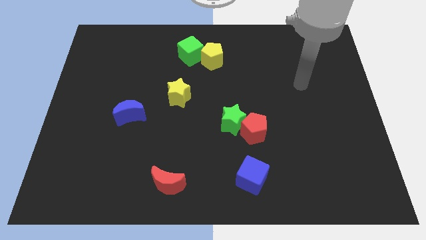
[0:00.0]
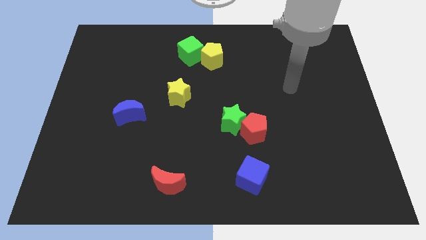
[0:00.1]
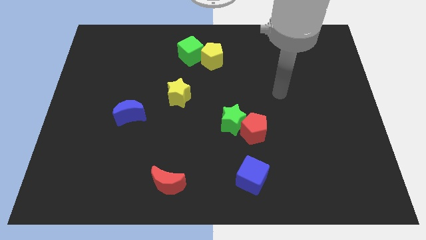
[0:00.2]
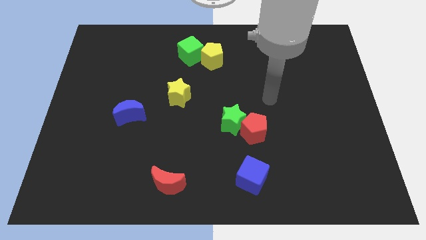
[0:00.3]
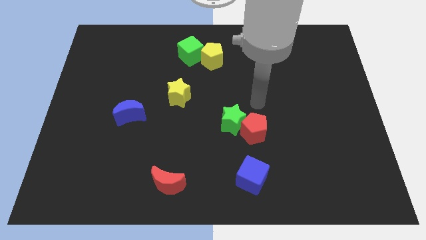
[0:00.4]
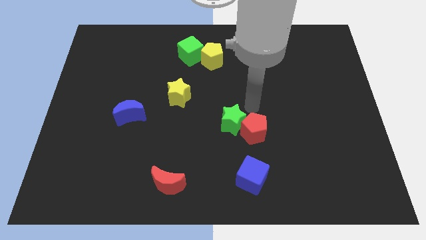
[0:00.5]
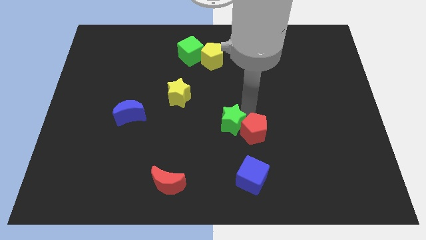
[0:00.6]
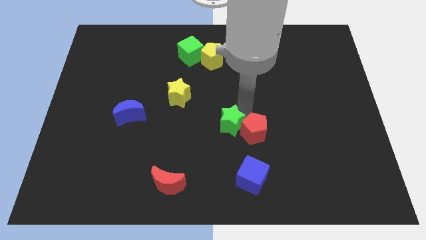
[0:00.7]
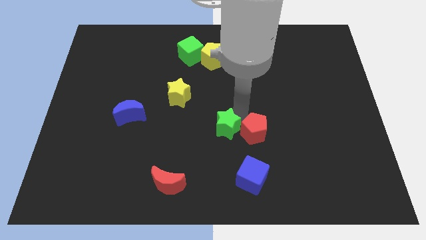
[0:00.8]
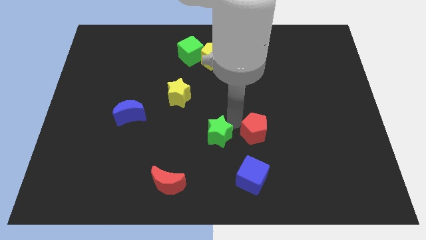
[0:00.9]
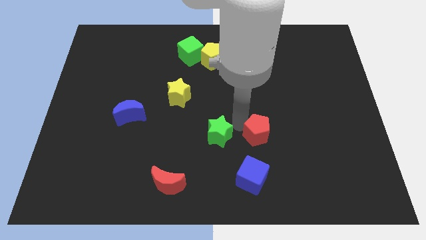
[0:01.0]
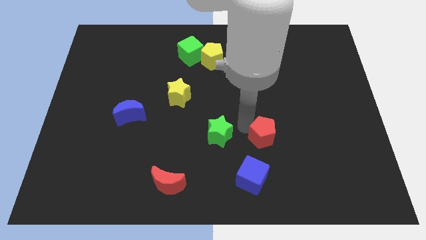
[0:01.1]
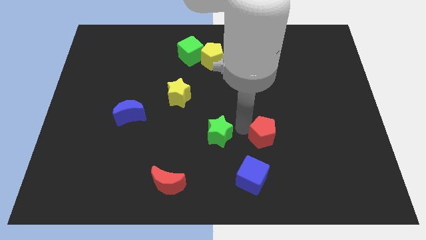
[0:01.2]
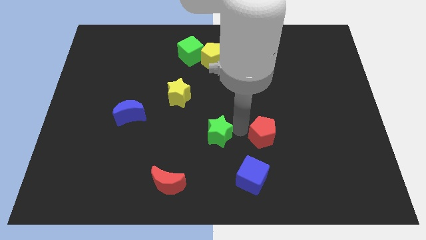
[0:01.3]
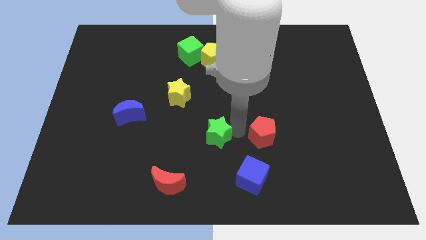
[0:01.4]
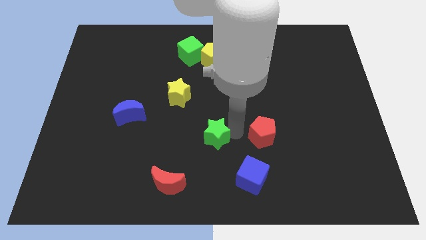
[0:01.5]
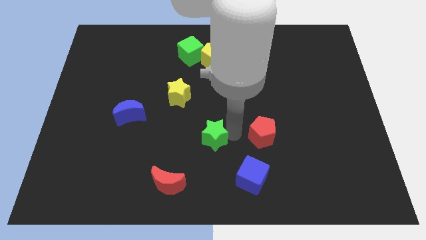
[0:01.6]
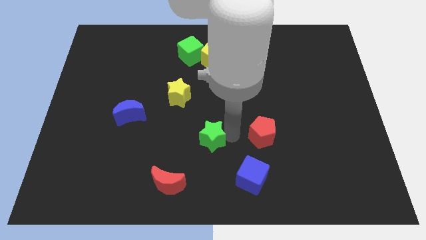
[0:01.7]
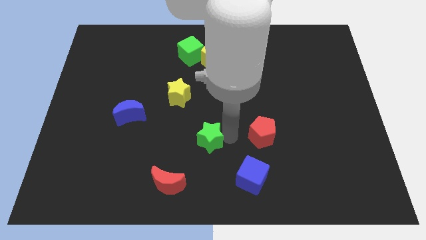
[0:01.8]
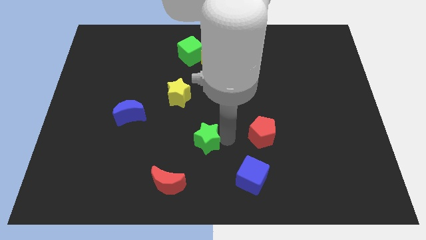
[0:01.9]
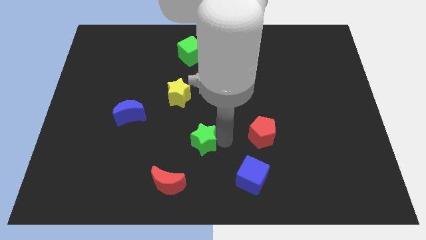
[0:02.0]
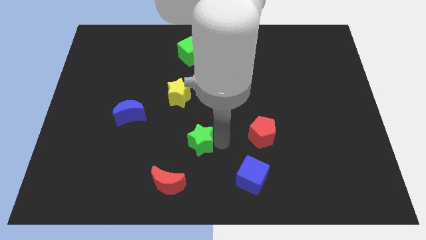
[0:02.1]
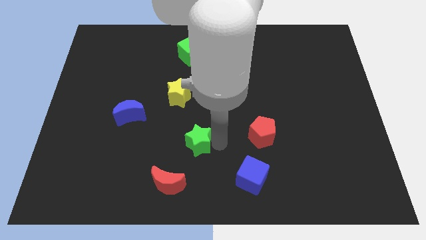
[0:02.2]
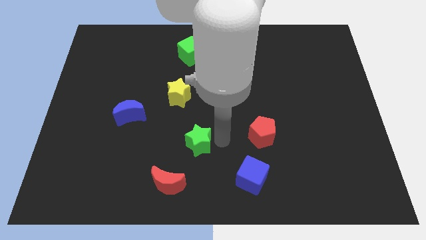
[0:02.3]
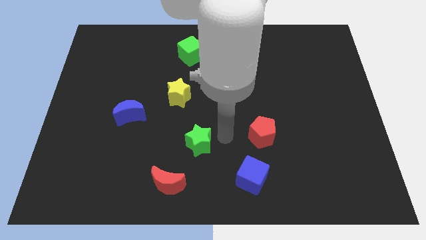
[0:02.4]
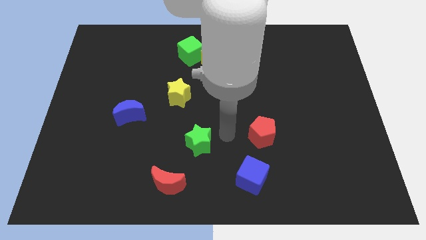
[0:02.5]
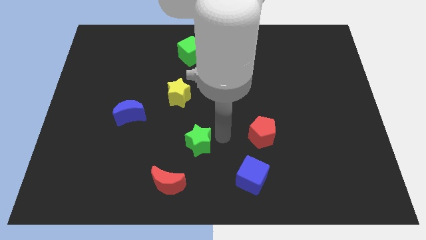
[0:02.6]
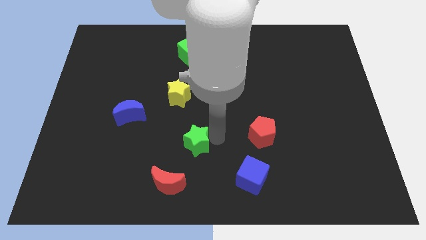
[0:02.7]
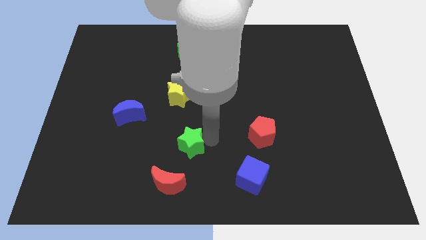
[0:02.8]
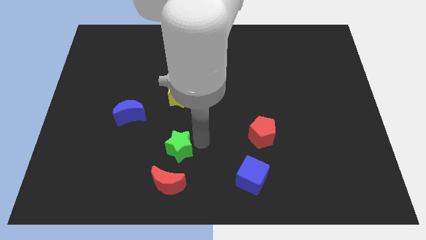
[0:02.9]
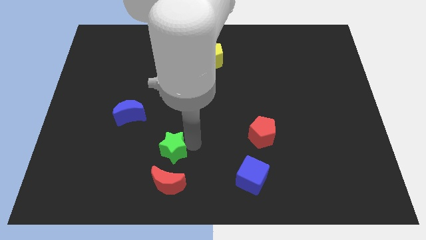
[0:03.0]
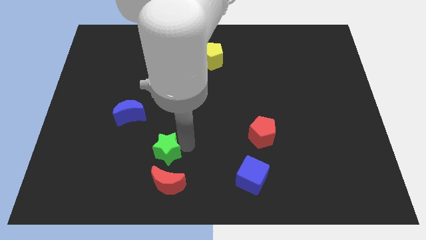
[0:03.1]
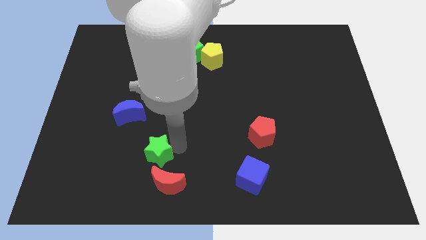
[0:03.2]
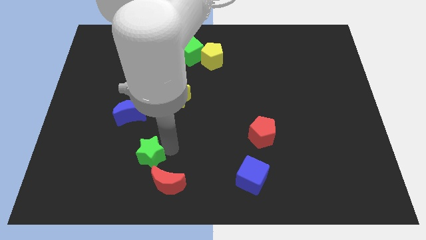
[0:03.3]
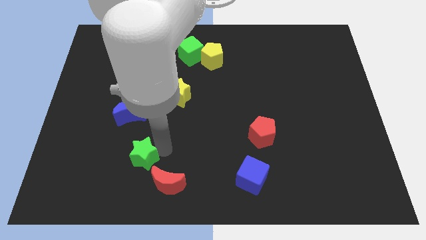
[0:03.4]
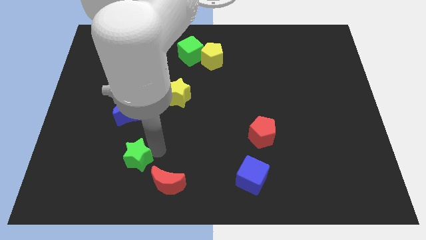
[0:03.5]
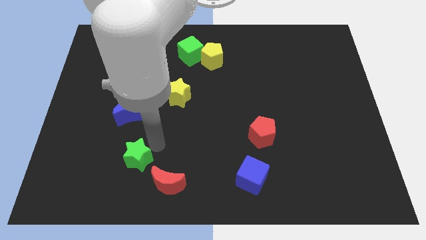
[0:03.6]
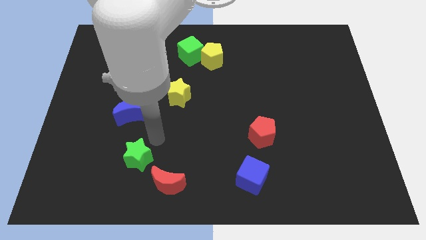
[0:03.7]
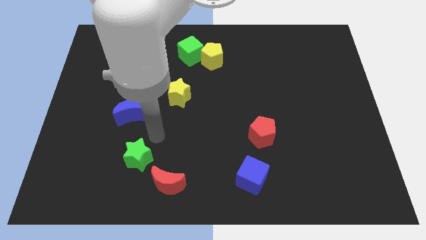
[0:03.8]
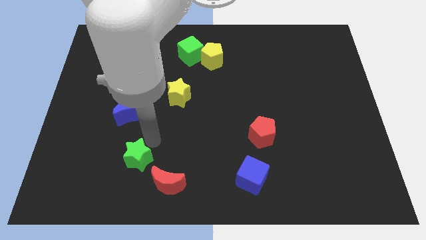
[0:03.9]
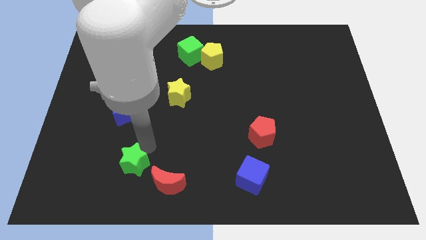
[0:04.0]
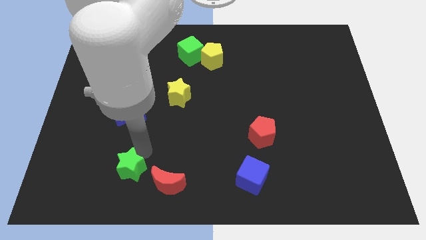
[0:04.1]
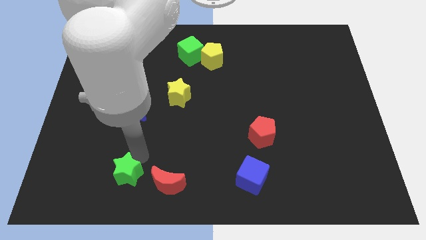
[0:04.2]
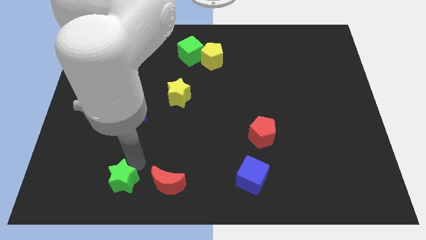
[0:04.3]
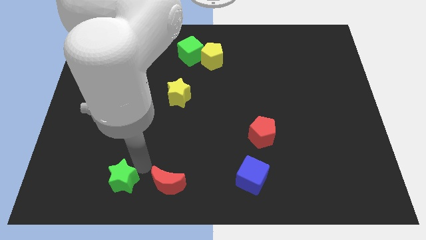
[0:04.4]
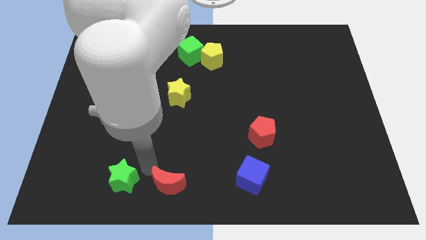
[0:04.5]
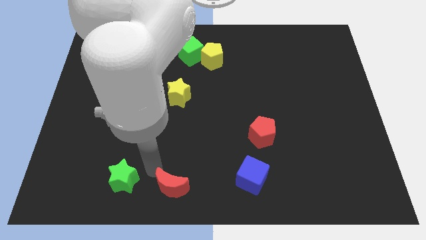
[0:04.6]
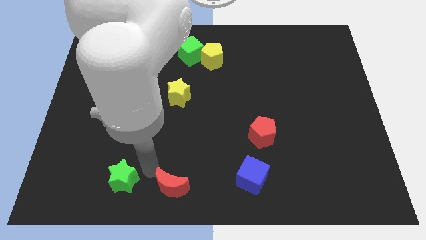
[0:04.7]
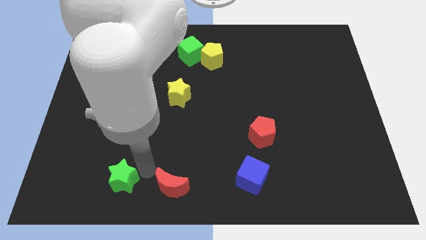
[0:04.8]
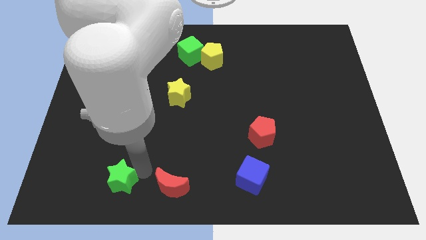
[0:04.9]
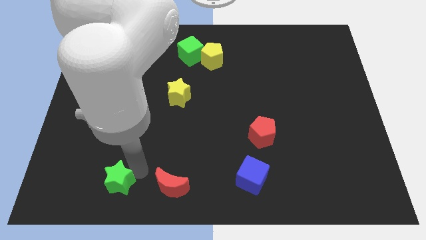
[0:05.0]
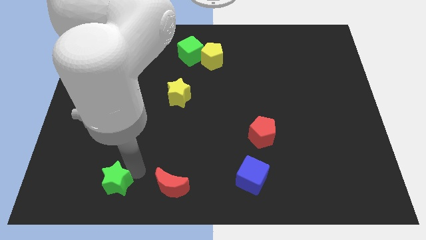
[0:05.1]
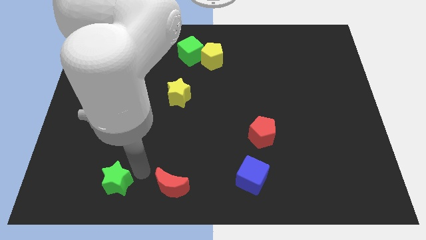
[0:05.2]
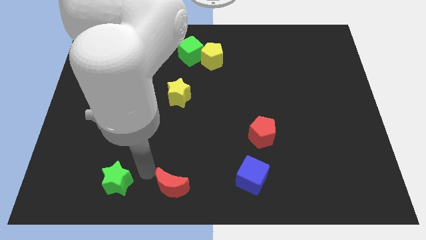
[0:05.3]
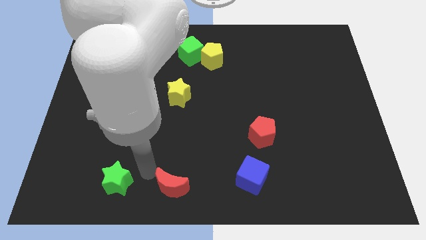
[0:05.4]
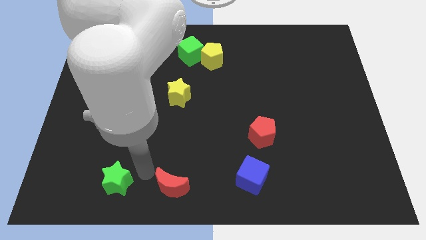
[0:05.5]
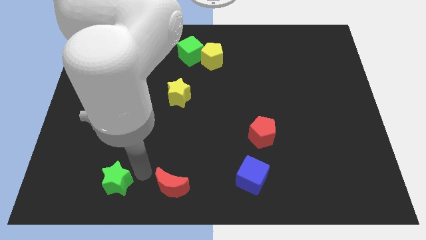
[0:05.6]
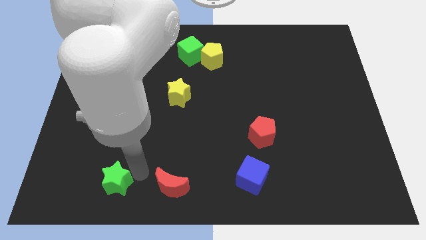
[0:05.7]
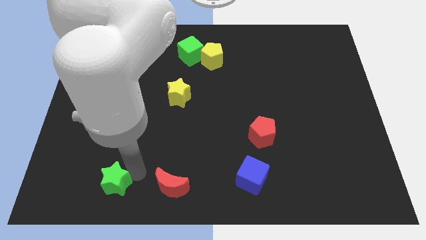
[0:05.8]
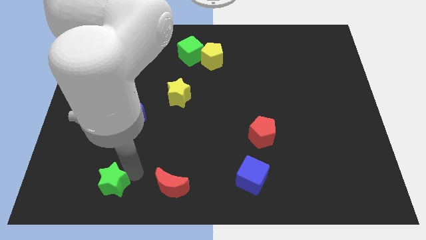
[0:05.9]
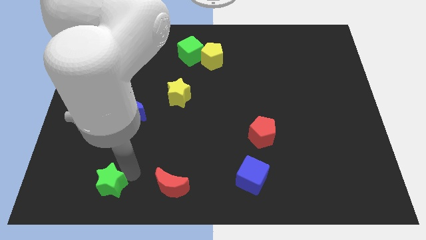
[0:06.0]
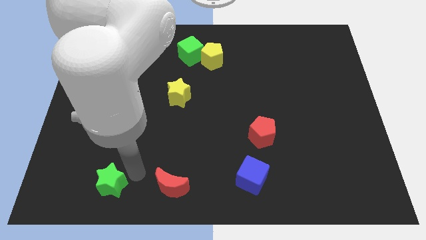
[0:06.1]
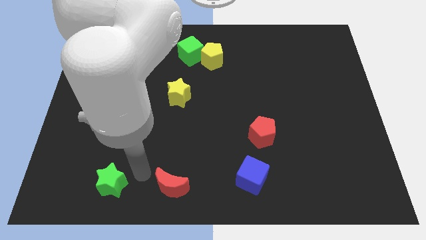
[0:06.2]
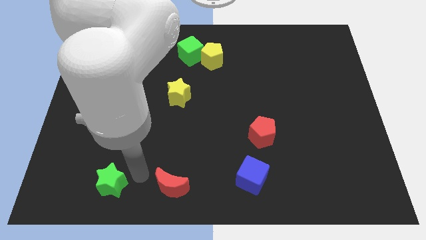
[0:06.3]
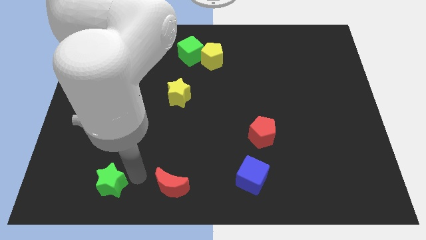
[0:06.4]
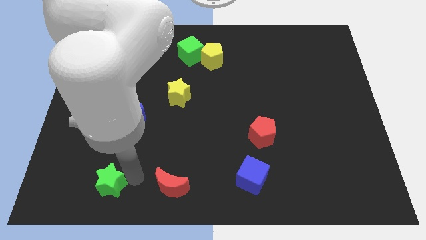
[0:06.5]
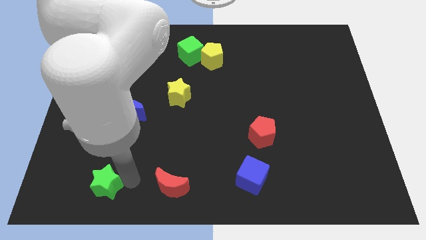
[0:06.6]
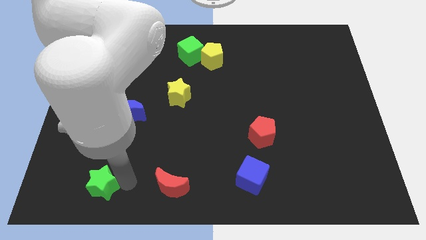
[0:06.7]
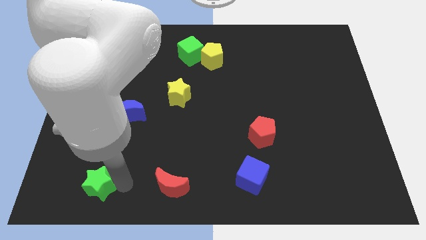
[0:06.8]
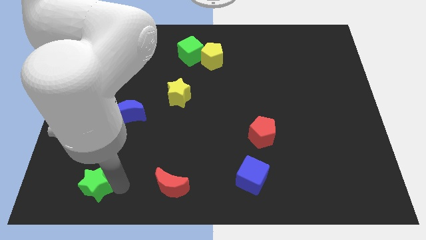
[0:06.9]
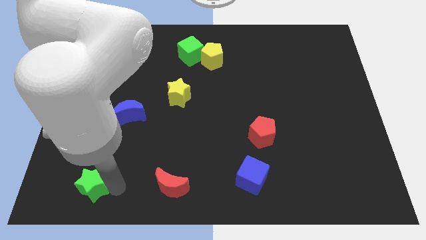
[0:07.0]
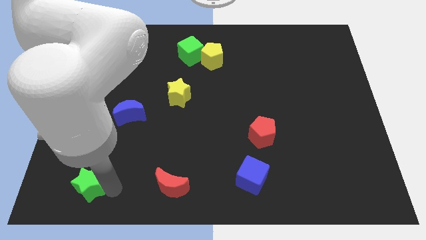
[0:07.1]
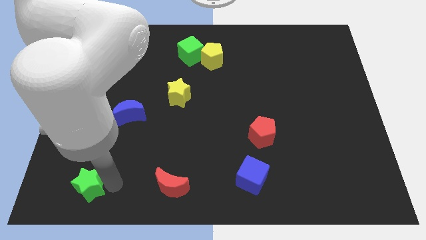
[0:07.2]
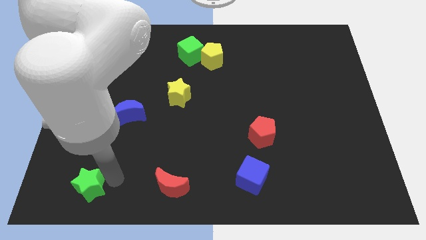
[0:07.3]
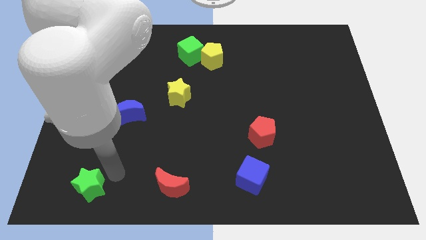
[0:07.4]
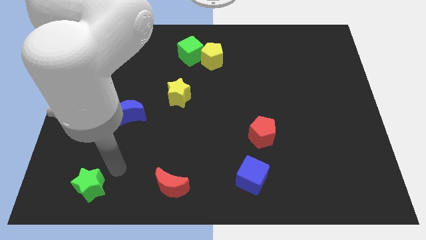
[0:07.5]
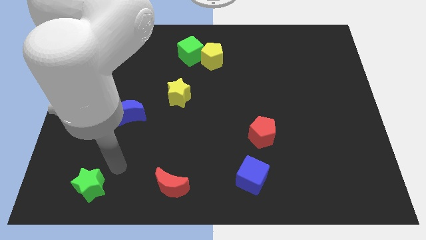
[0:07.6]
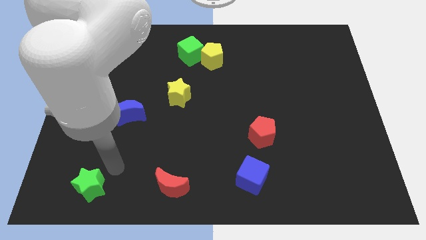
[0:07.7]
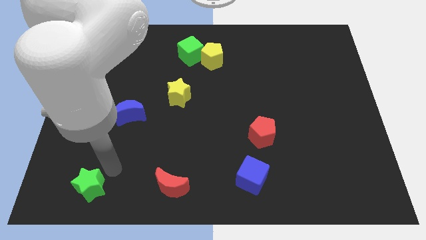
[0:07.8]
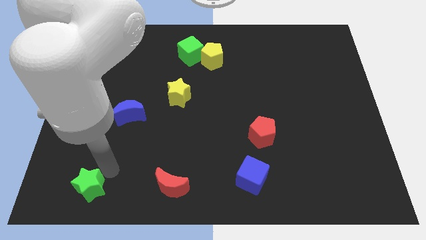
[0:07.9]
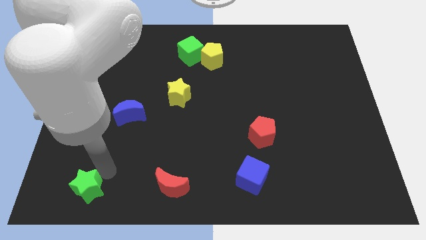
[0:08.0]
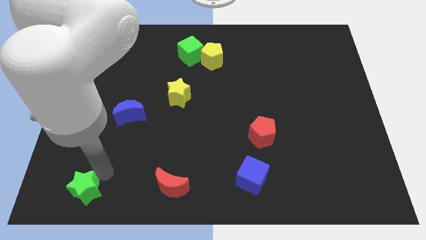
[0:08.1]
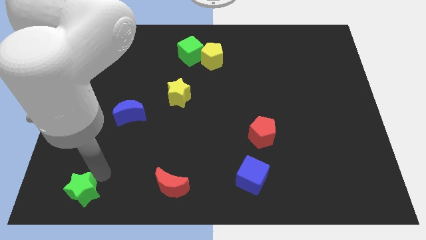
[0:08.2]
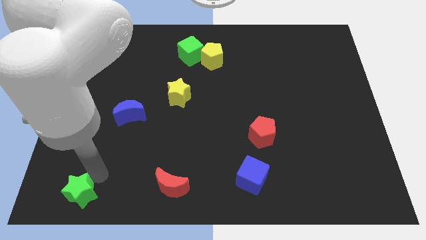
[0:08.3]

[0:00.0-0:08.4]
slide the green star to the bottom left
